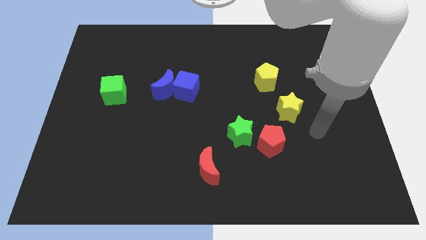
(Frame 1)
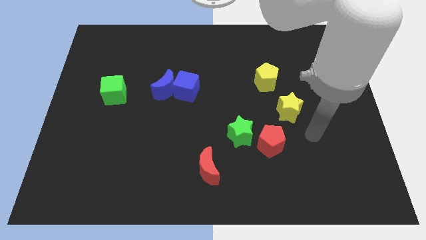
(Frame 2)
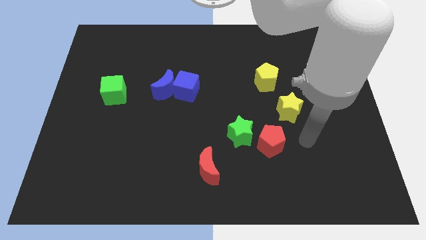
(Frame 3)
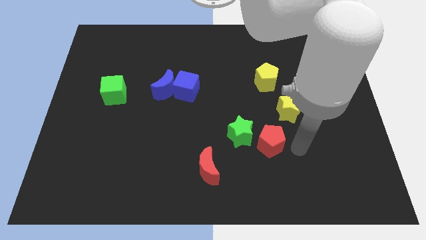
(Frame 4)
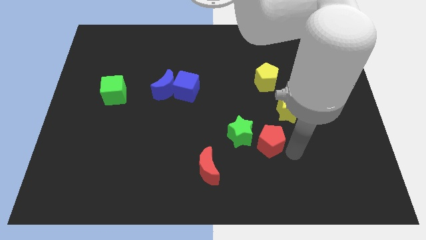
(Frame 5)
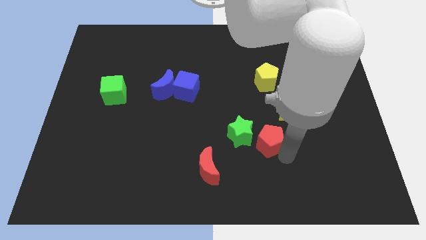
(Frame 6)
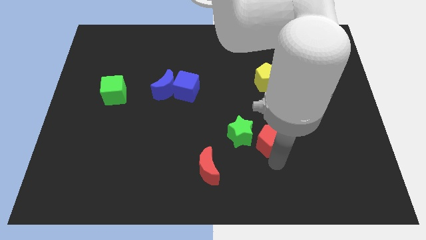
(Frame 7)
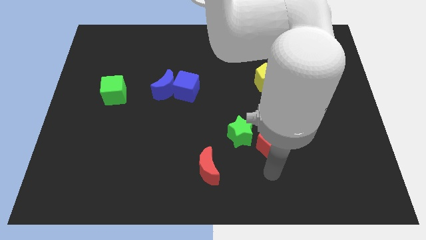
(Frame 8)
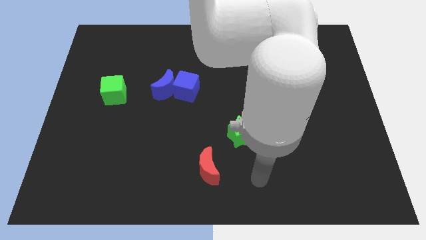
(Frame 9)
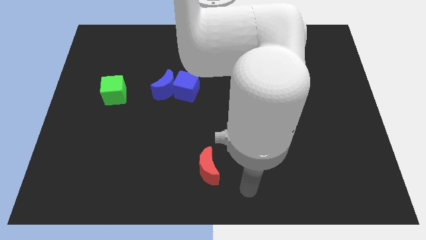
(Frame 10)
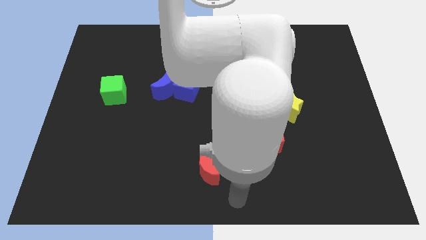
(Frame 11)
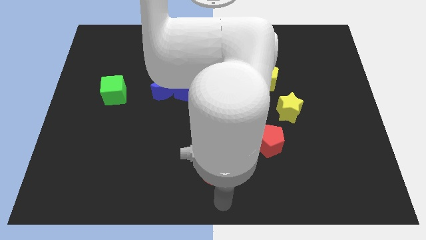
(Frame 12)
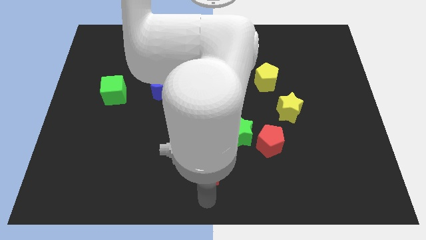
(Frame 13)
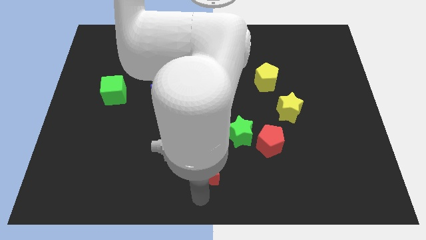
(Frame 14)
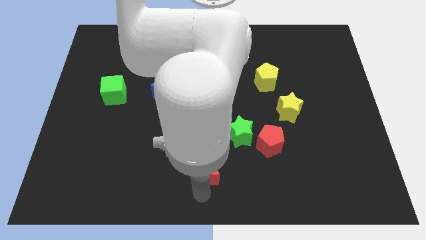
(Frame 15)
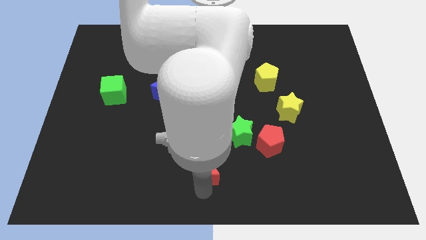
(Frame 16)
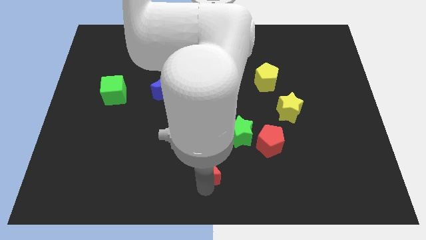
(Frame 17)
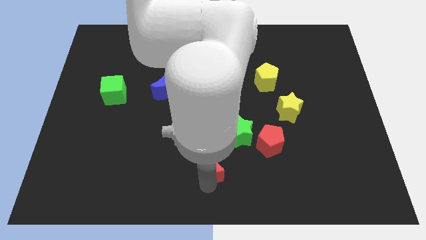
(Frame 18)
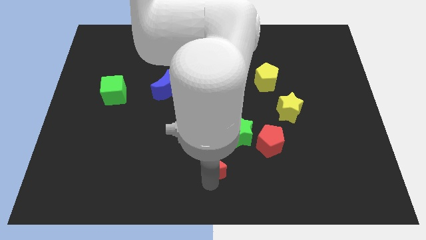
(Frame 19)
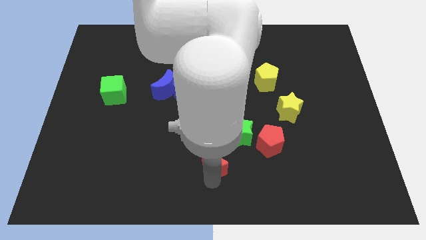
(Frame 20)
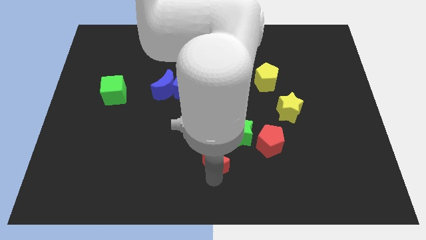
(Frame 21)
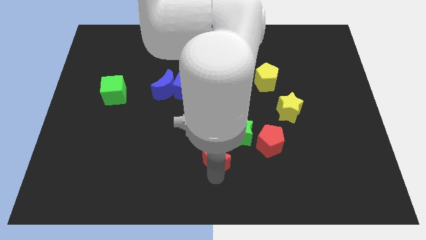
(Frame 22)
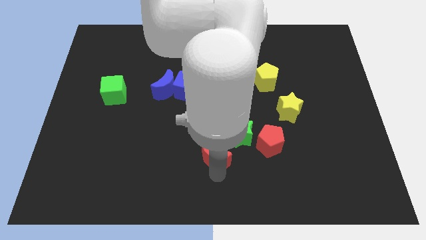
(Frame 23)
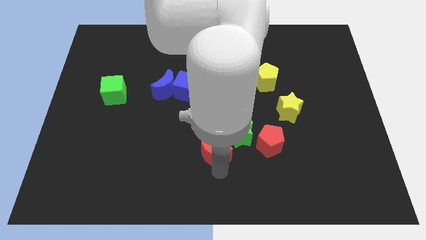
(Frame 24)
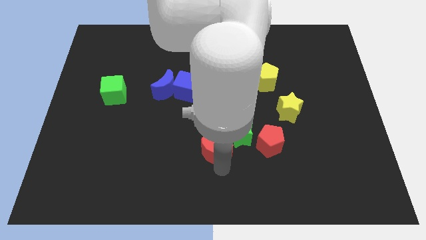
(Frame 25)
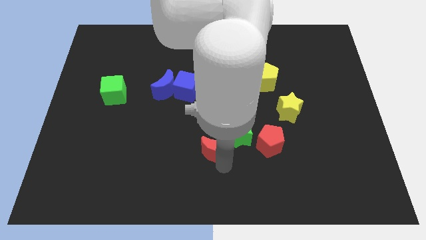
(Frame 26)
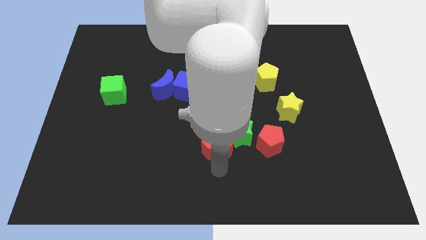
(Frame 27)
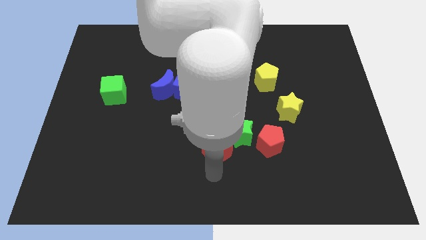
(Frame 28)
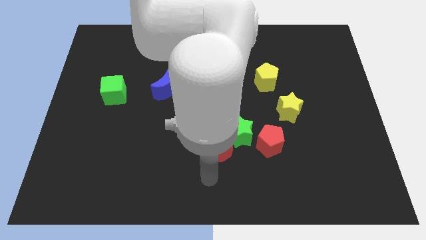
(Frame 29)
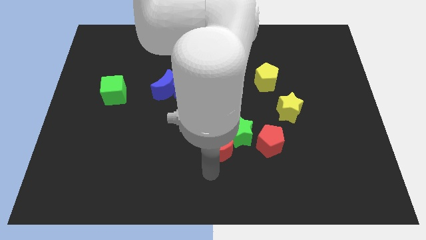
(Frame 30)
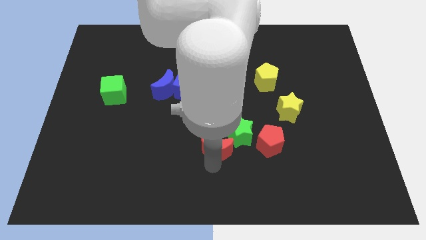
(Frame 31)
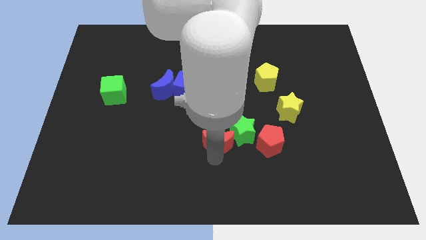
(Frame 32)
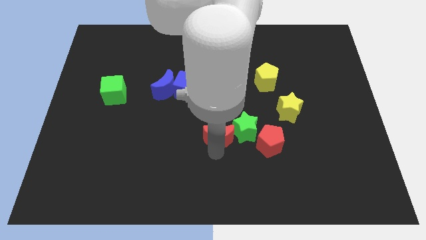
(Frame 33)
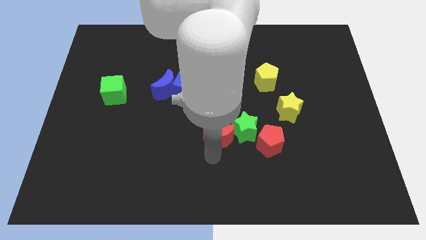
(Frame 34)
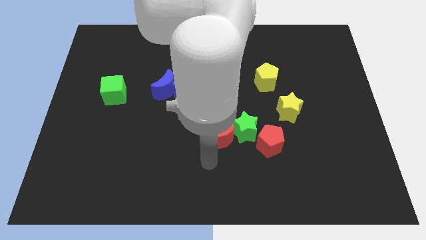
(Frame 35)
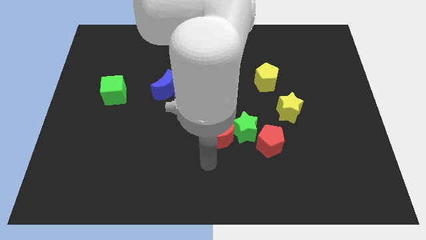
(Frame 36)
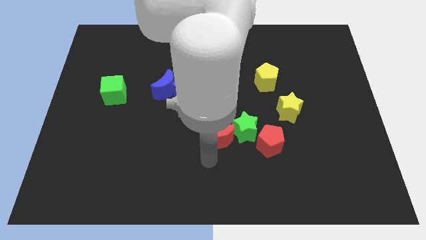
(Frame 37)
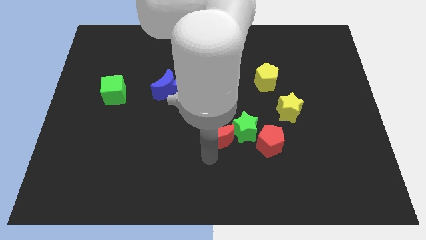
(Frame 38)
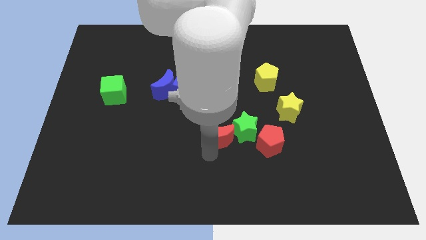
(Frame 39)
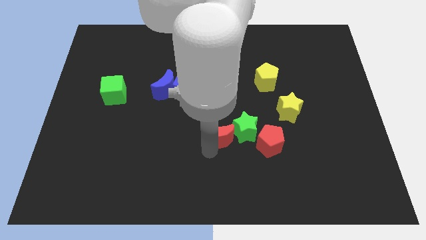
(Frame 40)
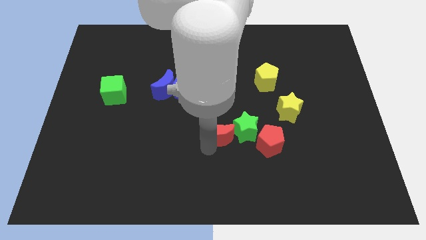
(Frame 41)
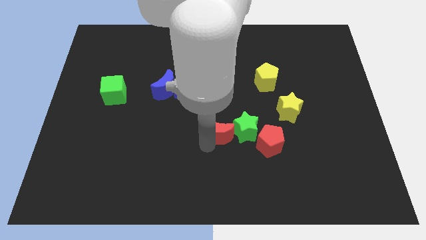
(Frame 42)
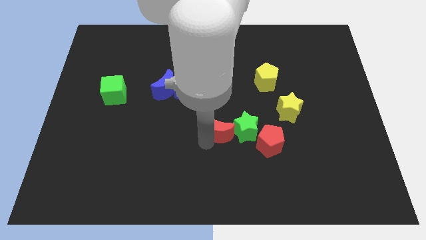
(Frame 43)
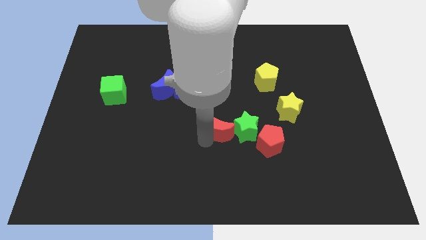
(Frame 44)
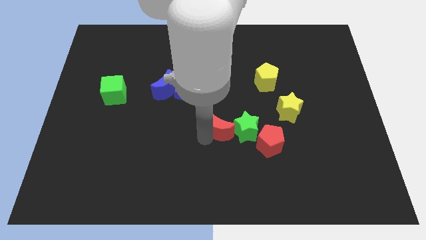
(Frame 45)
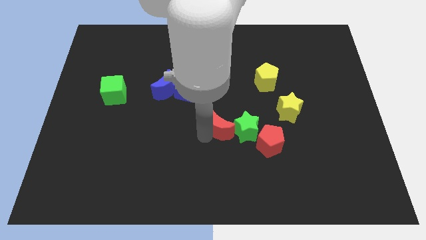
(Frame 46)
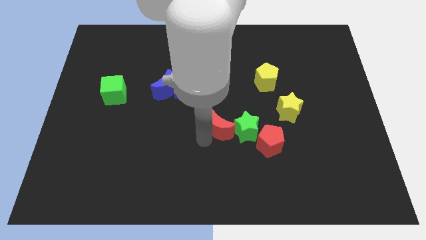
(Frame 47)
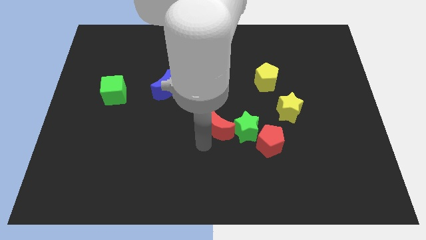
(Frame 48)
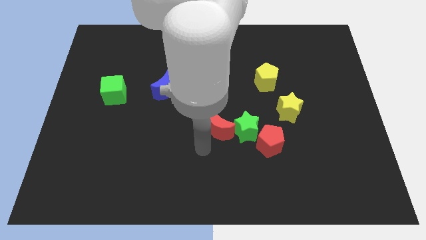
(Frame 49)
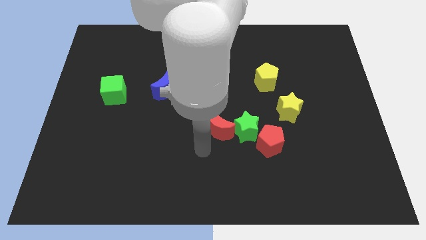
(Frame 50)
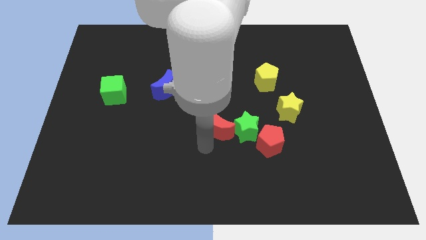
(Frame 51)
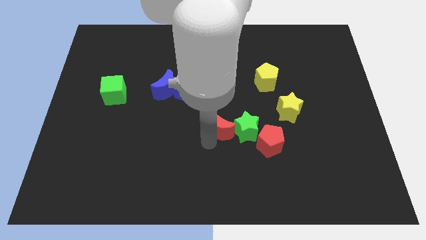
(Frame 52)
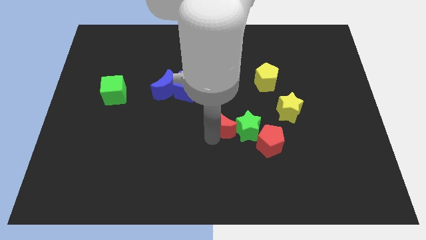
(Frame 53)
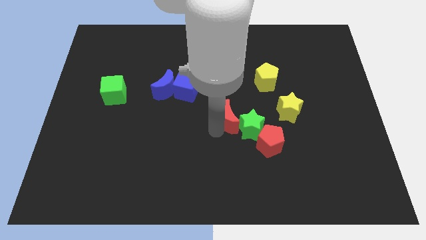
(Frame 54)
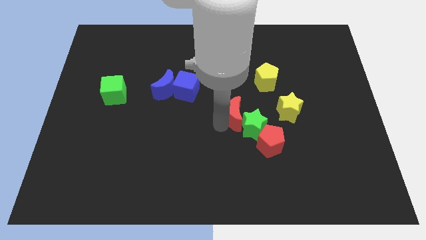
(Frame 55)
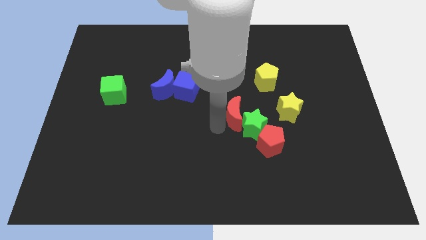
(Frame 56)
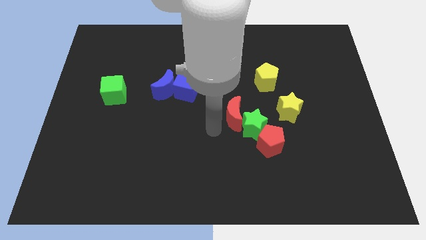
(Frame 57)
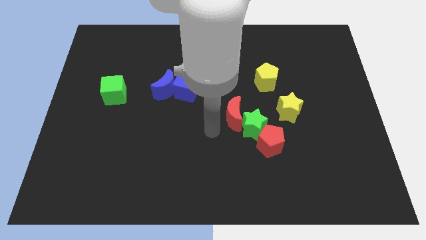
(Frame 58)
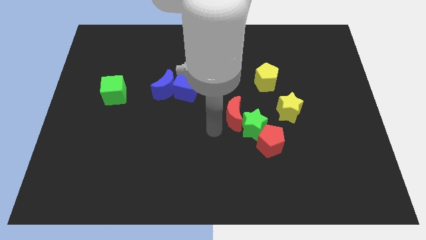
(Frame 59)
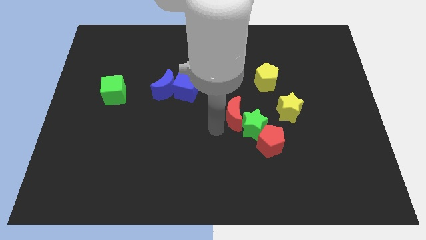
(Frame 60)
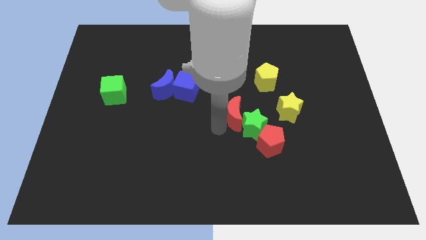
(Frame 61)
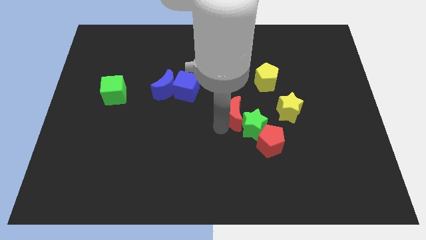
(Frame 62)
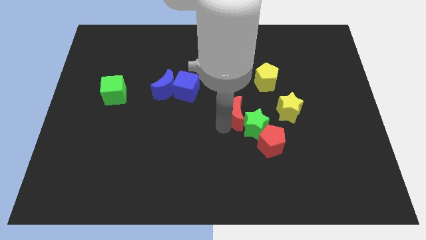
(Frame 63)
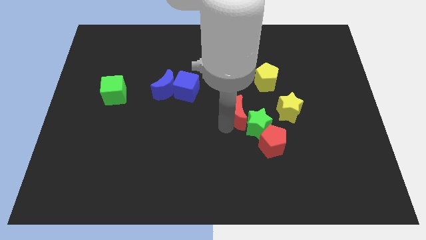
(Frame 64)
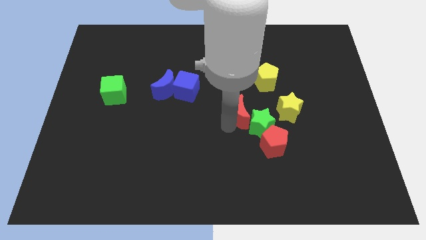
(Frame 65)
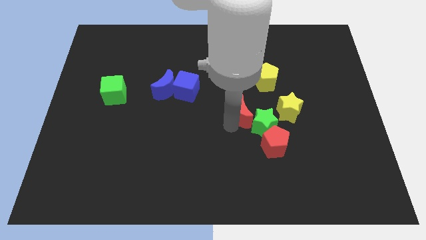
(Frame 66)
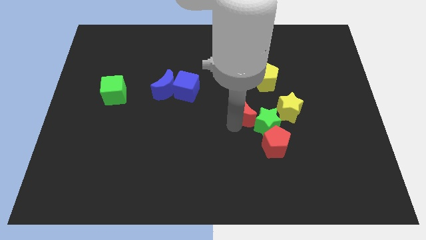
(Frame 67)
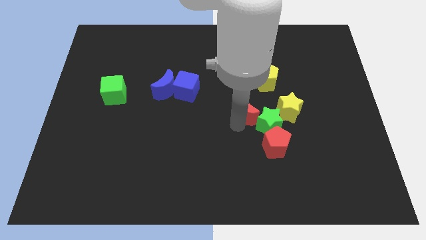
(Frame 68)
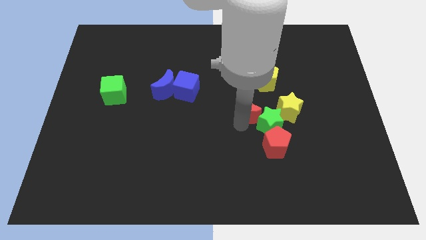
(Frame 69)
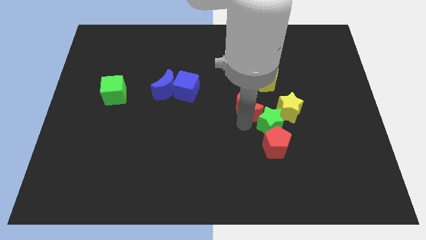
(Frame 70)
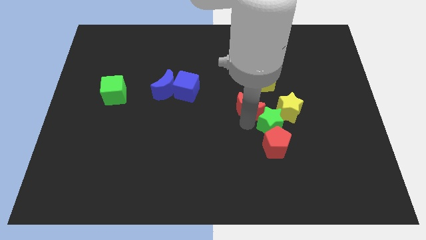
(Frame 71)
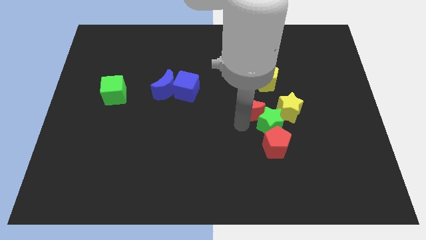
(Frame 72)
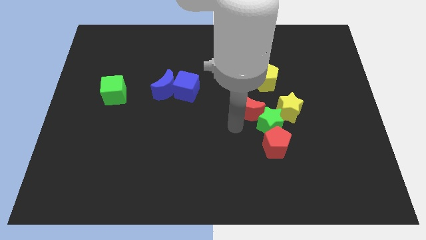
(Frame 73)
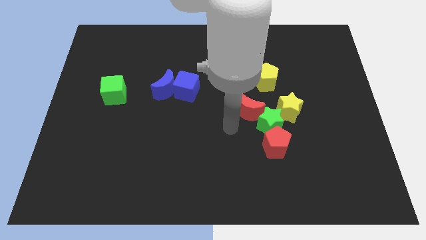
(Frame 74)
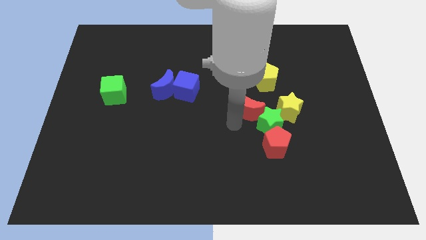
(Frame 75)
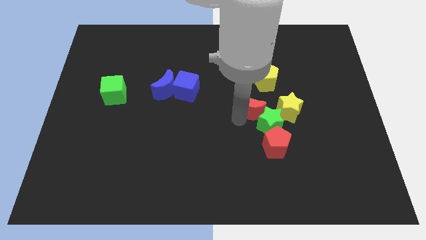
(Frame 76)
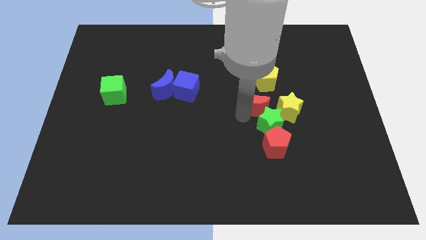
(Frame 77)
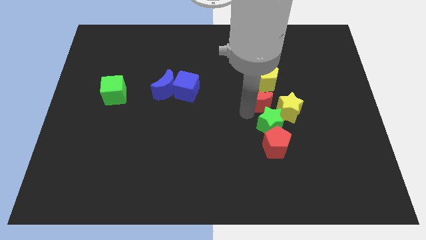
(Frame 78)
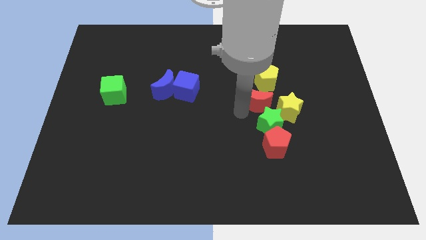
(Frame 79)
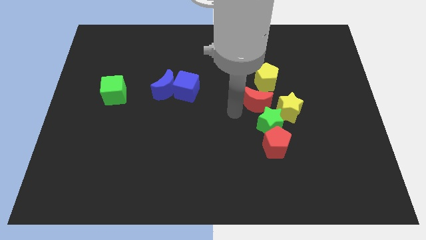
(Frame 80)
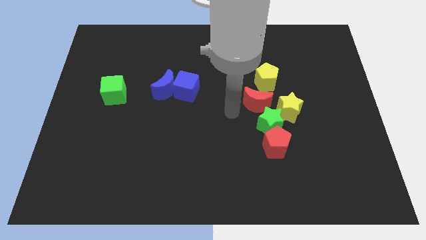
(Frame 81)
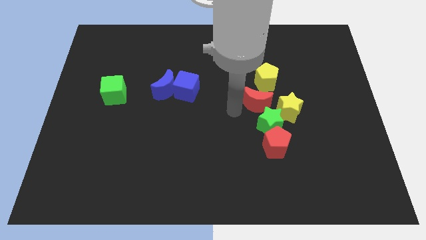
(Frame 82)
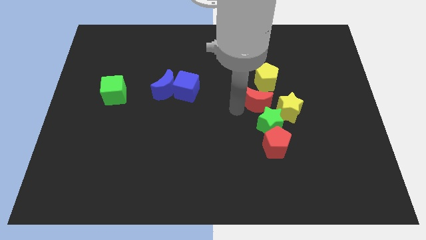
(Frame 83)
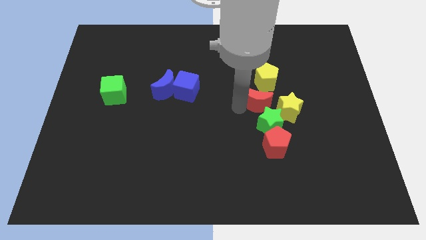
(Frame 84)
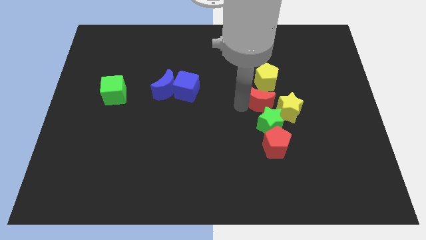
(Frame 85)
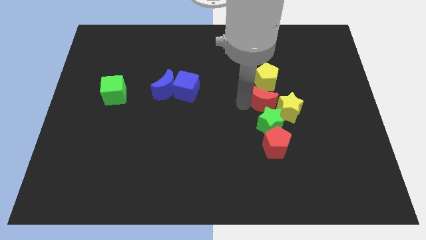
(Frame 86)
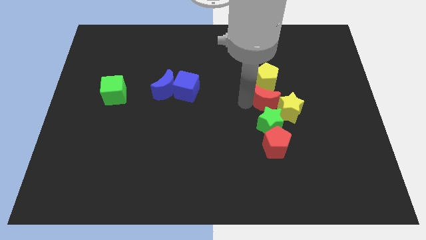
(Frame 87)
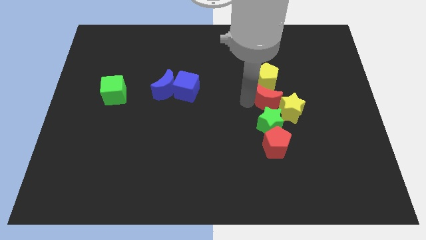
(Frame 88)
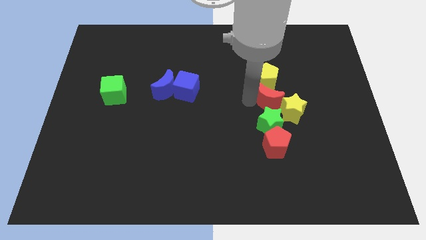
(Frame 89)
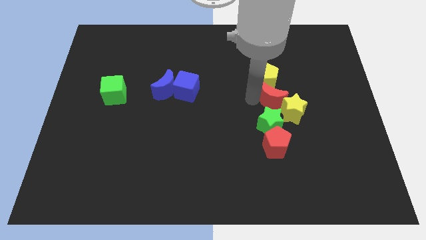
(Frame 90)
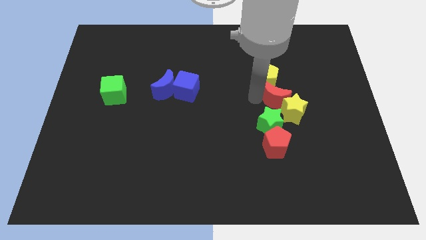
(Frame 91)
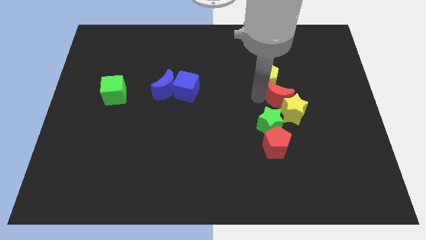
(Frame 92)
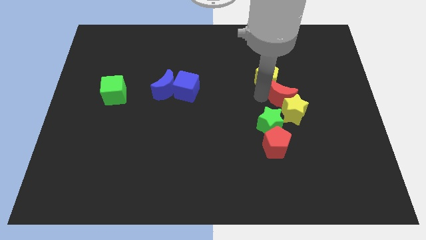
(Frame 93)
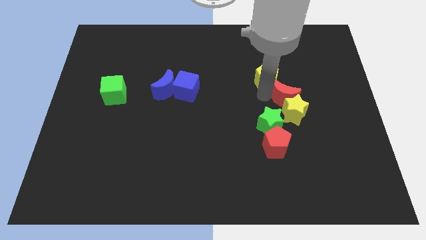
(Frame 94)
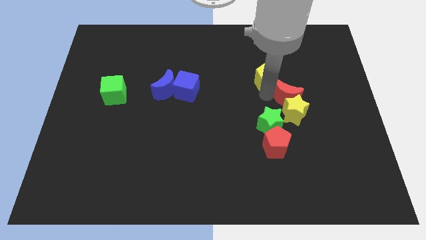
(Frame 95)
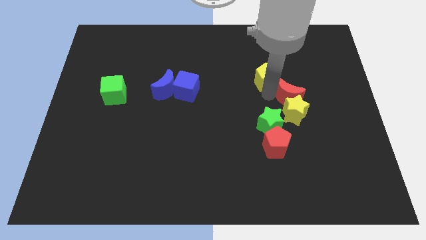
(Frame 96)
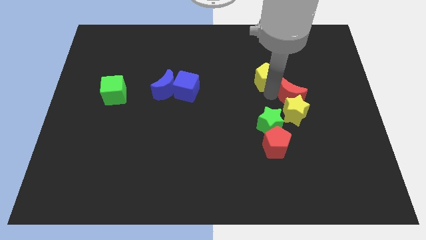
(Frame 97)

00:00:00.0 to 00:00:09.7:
push the red moon to the right of the yellow pentagon
